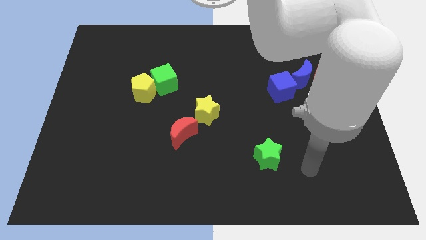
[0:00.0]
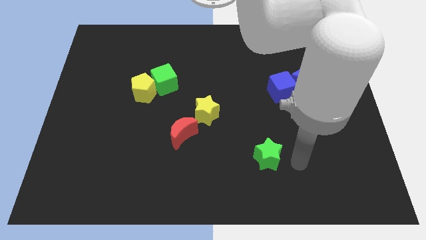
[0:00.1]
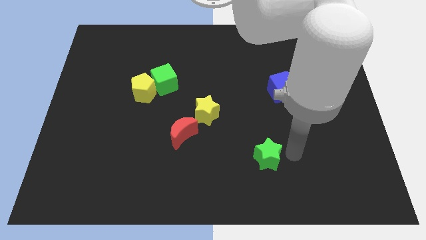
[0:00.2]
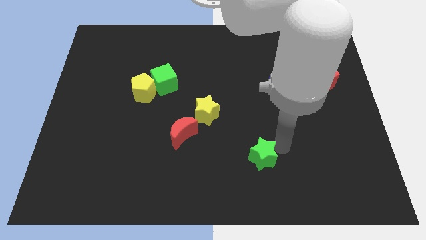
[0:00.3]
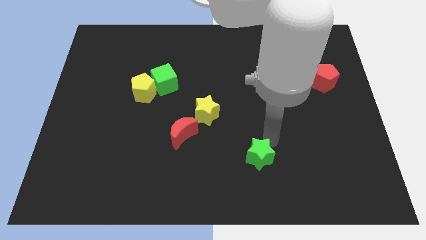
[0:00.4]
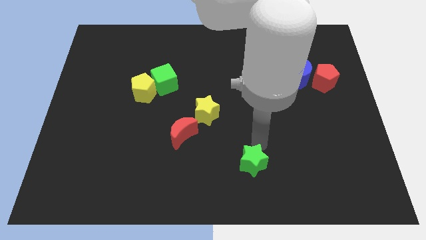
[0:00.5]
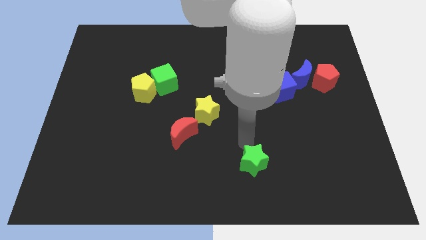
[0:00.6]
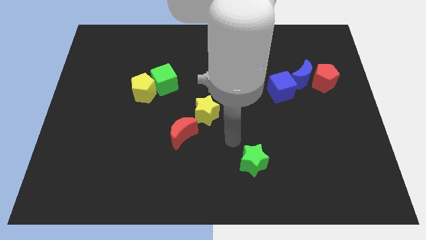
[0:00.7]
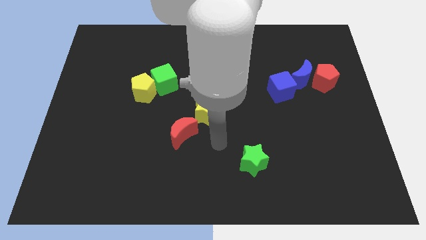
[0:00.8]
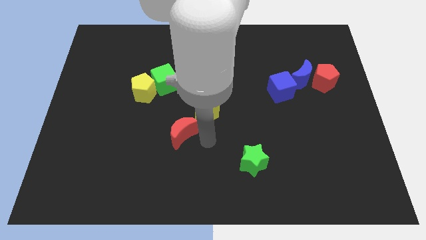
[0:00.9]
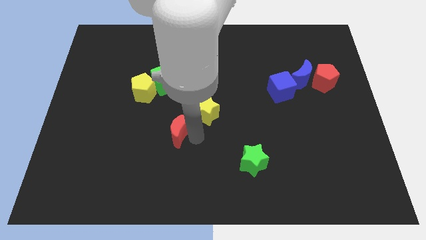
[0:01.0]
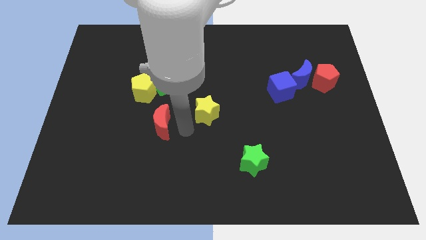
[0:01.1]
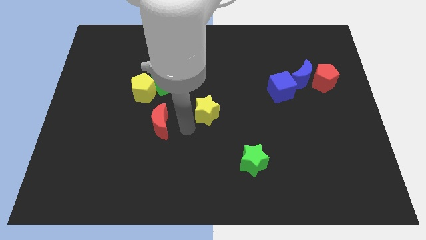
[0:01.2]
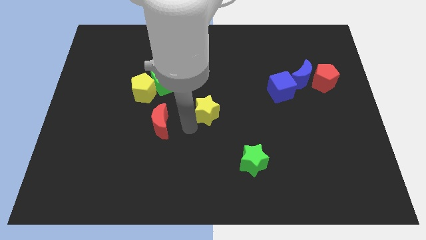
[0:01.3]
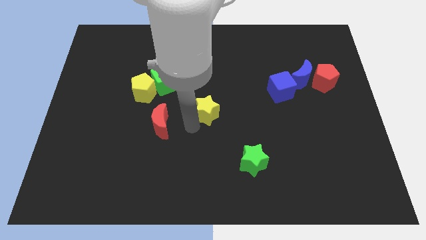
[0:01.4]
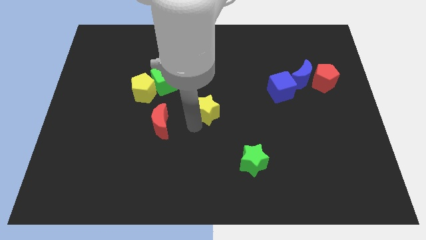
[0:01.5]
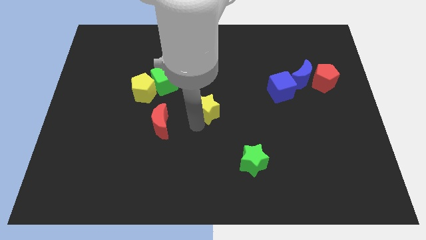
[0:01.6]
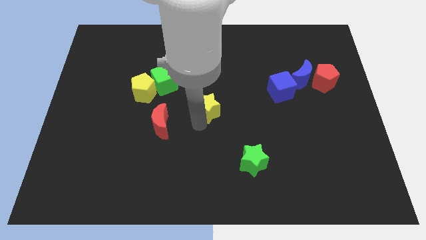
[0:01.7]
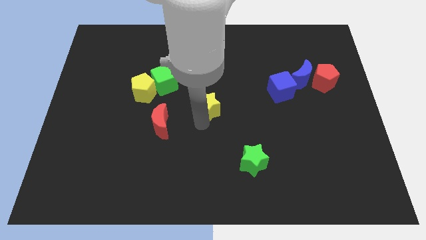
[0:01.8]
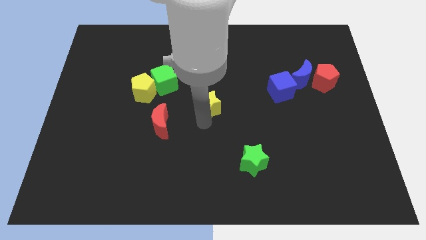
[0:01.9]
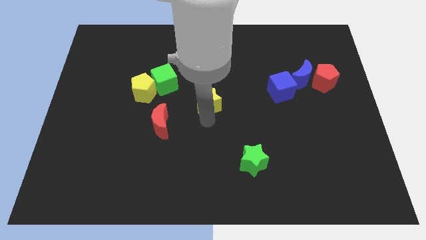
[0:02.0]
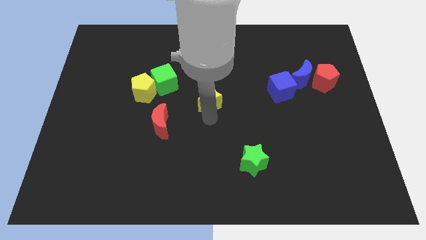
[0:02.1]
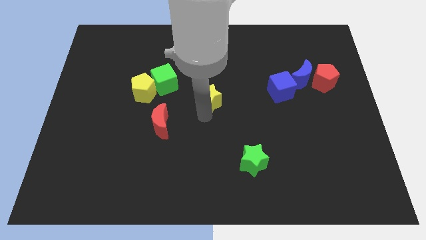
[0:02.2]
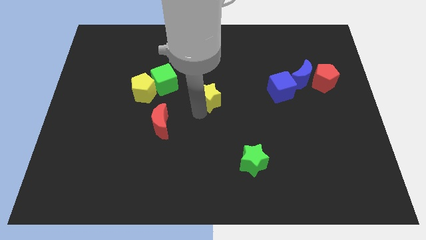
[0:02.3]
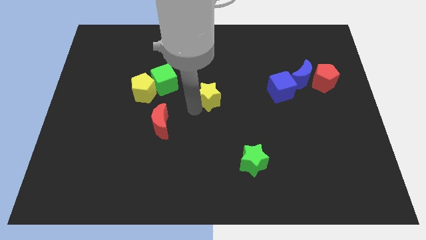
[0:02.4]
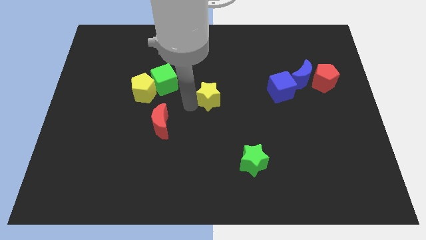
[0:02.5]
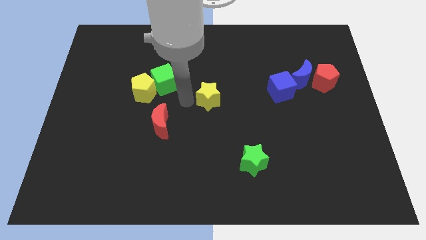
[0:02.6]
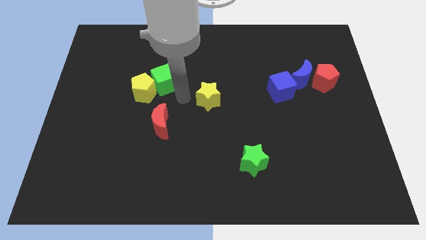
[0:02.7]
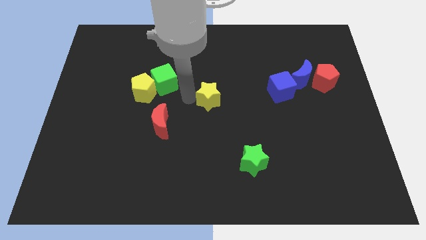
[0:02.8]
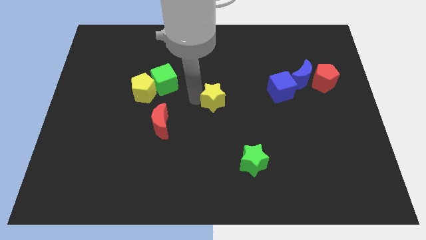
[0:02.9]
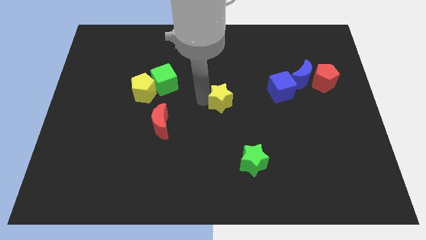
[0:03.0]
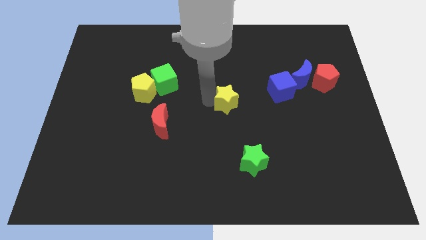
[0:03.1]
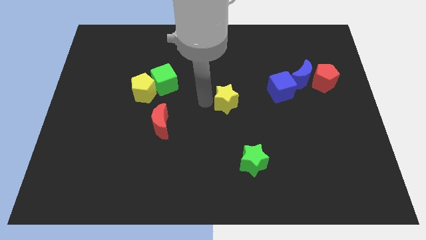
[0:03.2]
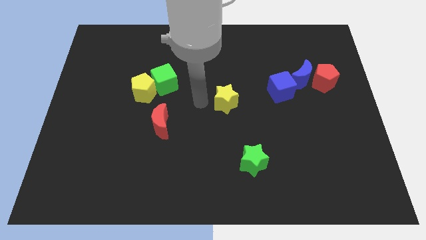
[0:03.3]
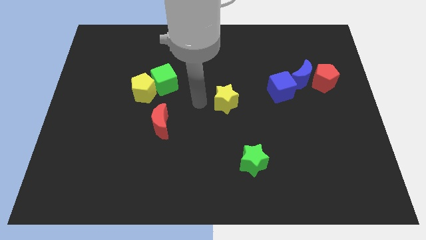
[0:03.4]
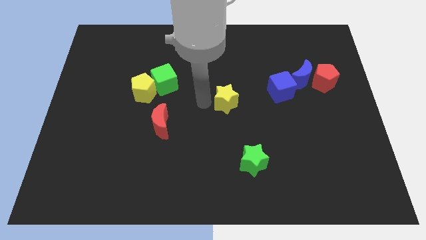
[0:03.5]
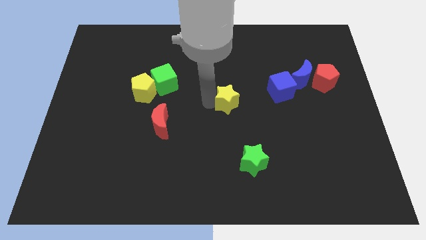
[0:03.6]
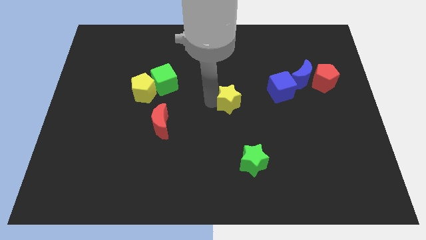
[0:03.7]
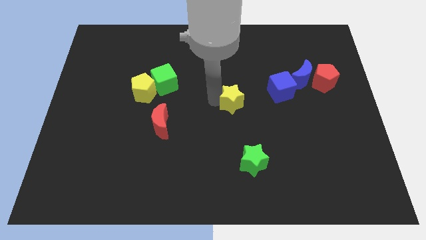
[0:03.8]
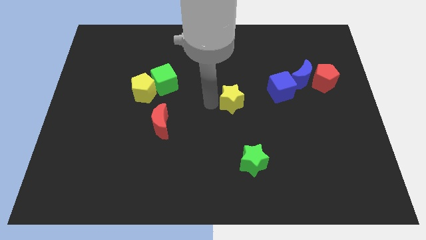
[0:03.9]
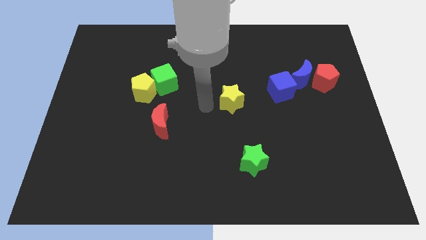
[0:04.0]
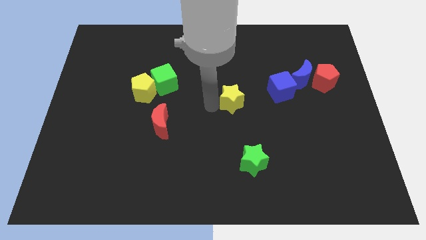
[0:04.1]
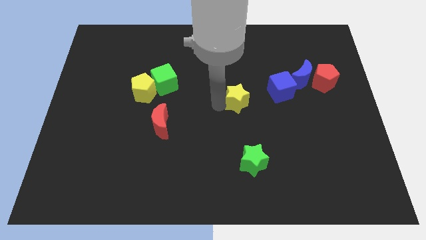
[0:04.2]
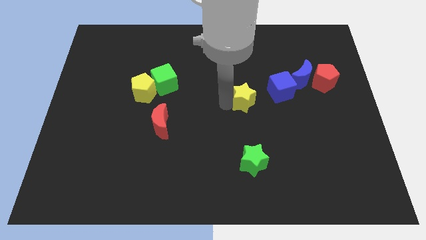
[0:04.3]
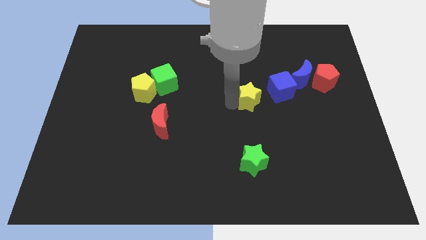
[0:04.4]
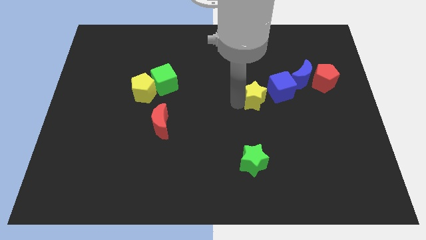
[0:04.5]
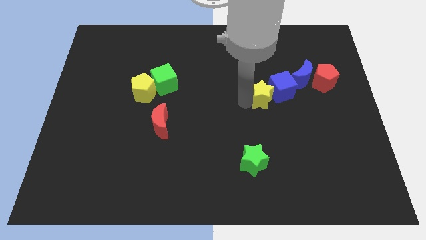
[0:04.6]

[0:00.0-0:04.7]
slide the yellow star close to the blue cube

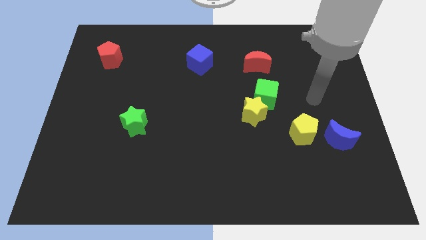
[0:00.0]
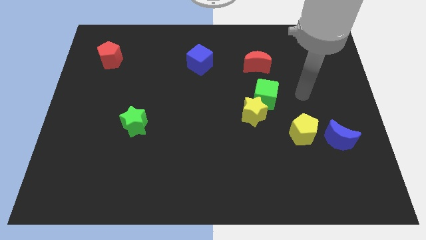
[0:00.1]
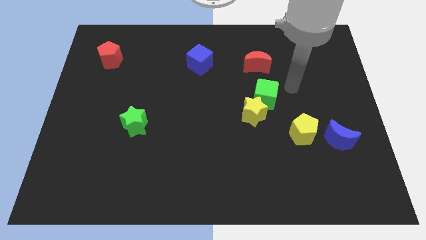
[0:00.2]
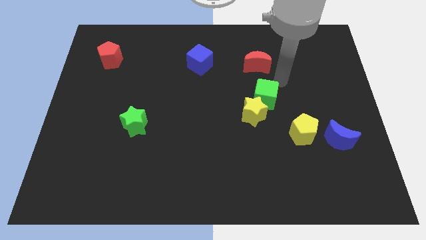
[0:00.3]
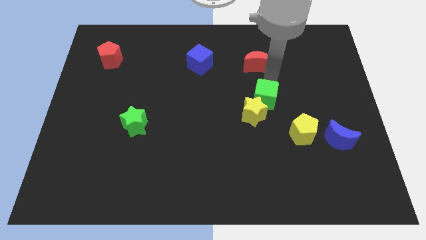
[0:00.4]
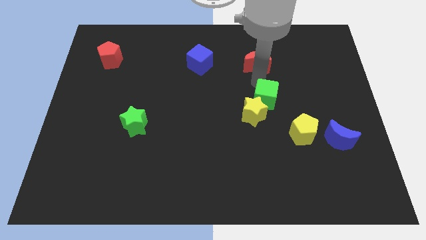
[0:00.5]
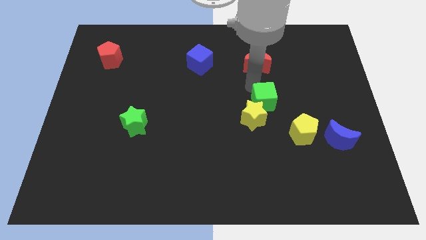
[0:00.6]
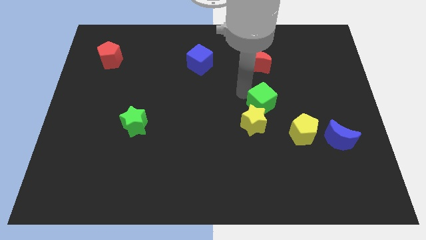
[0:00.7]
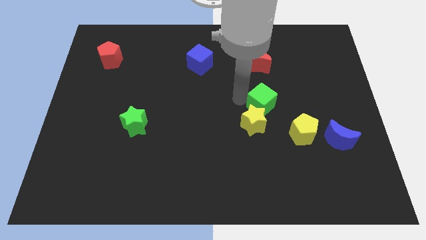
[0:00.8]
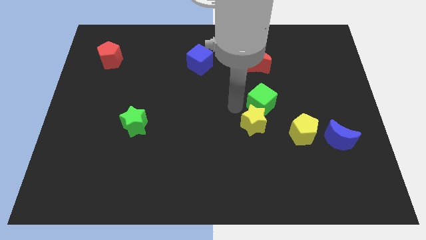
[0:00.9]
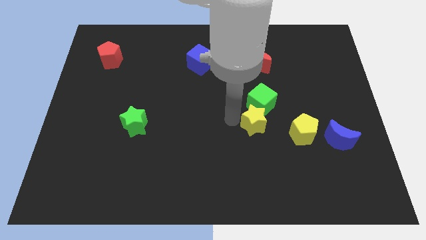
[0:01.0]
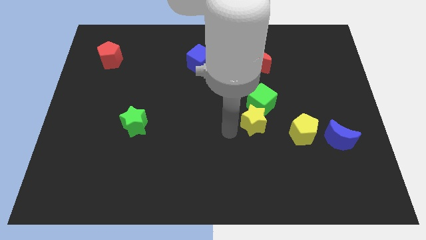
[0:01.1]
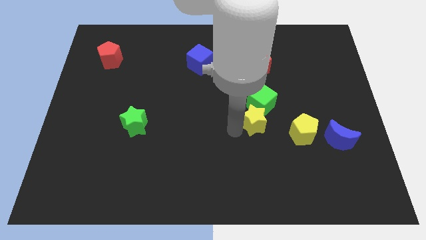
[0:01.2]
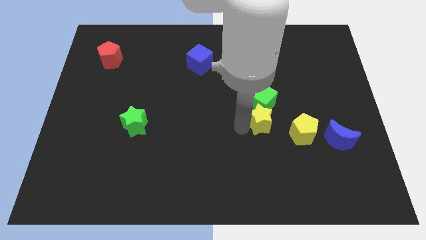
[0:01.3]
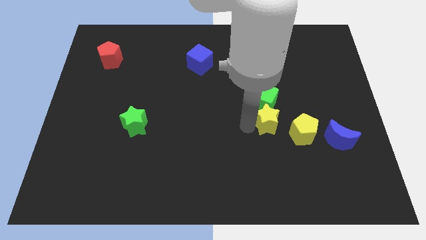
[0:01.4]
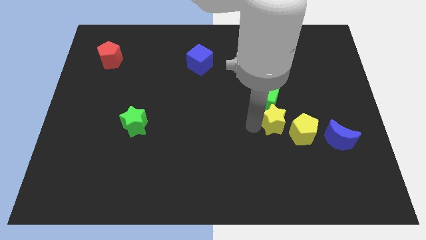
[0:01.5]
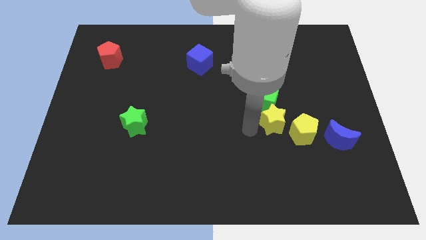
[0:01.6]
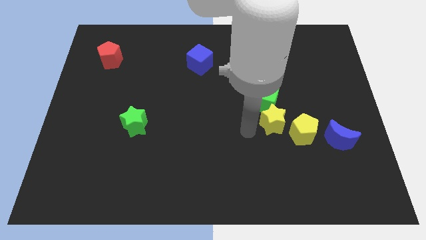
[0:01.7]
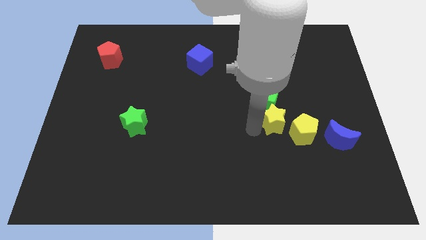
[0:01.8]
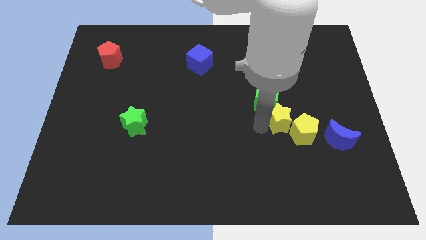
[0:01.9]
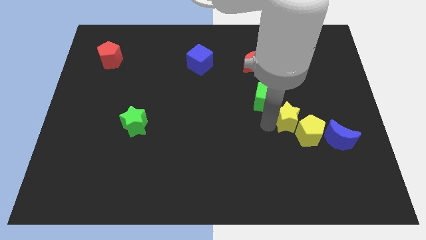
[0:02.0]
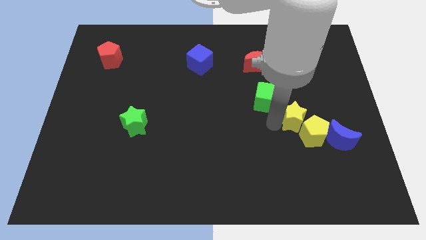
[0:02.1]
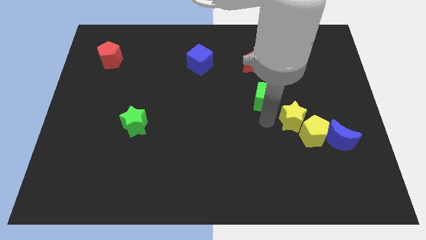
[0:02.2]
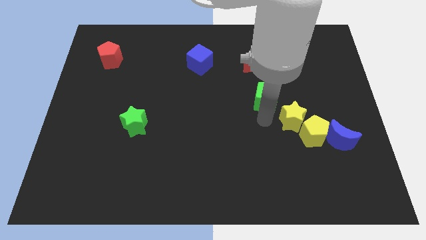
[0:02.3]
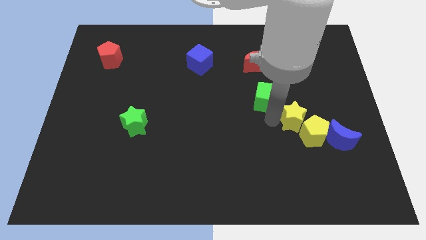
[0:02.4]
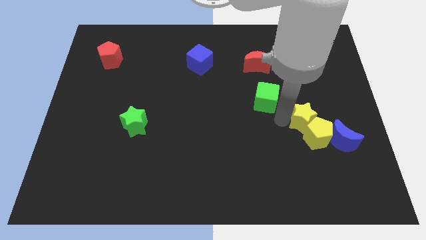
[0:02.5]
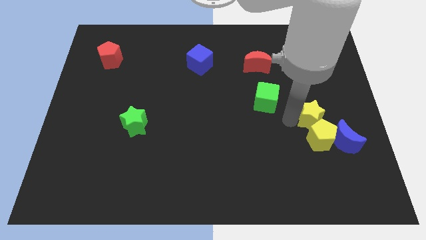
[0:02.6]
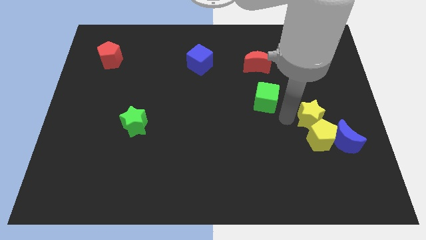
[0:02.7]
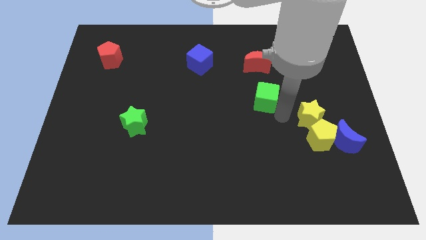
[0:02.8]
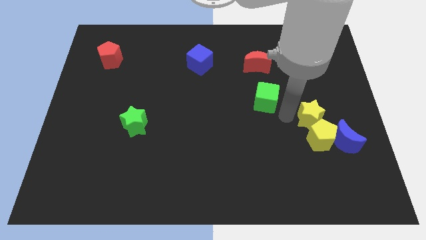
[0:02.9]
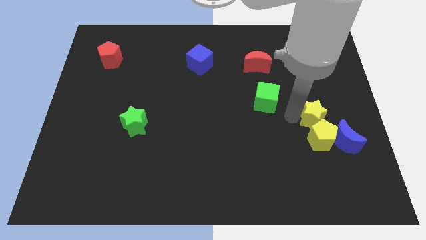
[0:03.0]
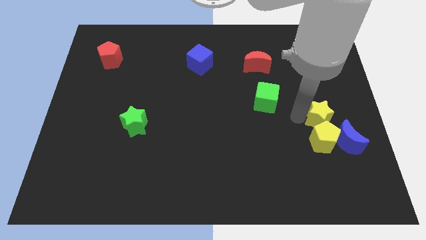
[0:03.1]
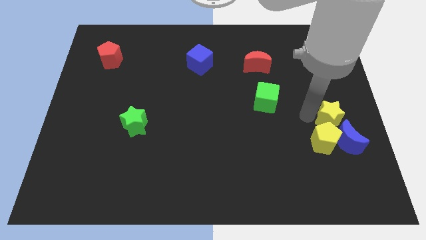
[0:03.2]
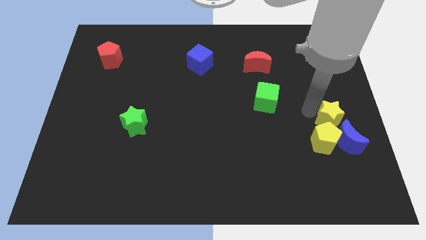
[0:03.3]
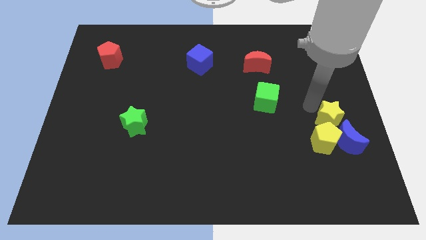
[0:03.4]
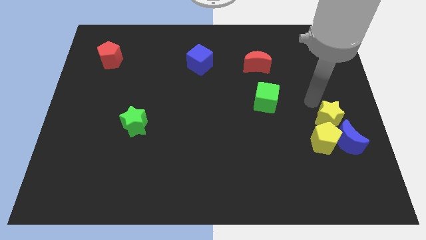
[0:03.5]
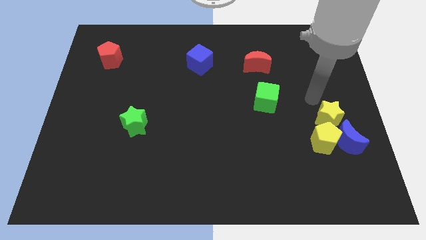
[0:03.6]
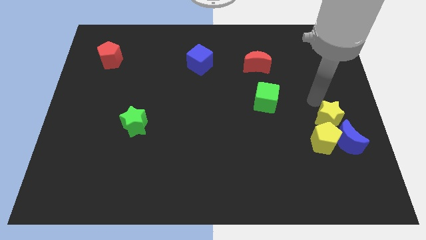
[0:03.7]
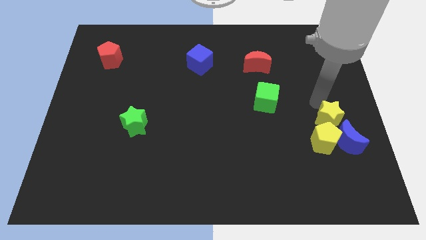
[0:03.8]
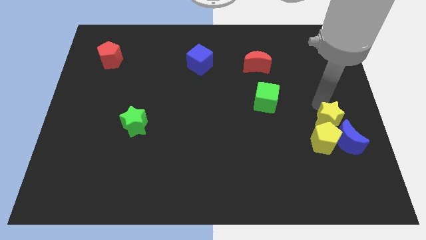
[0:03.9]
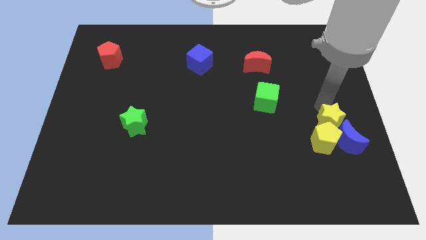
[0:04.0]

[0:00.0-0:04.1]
put the yellow star next to the blue moon
